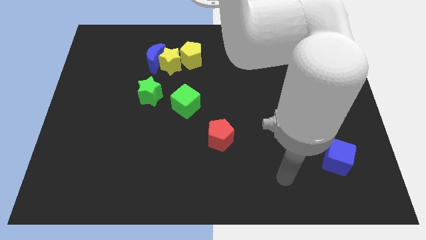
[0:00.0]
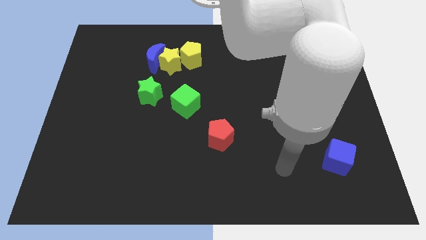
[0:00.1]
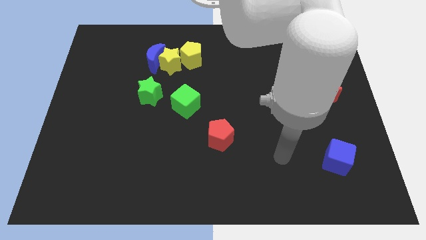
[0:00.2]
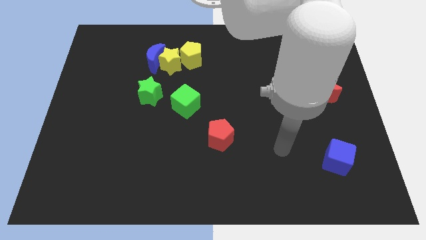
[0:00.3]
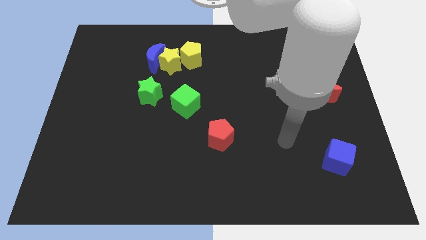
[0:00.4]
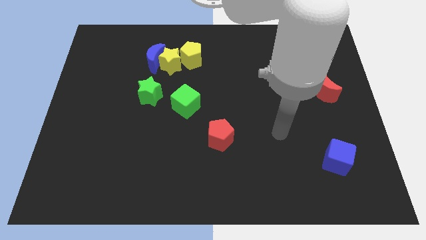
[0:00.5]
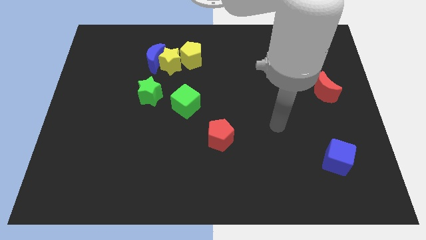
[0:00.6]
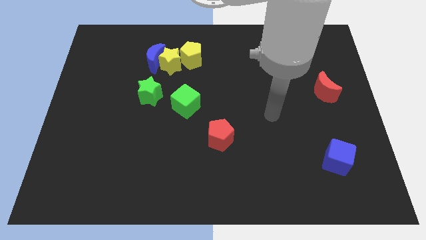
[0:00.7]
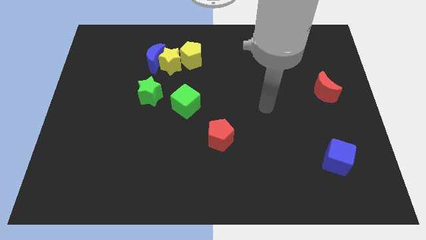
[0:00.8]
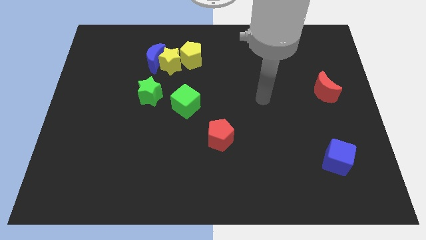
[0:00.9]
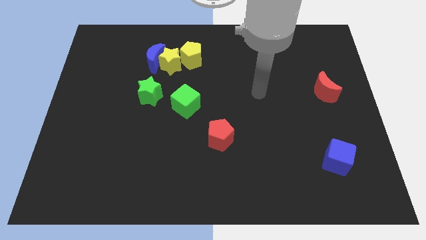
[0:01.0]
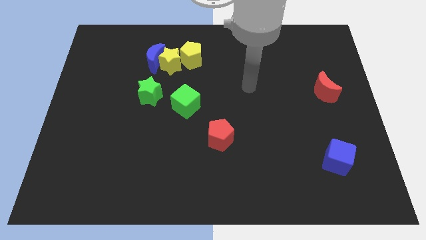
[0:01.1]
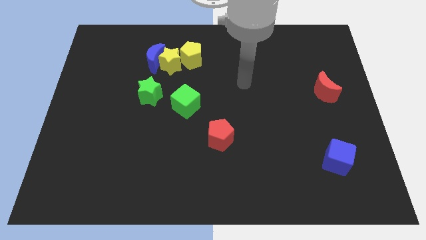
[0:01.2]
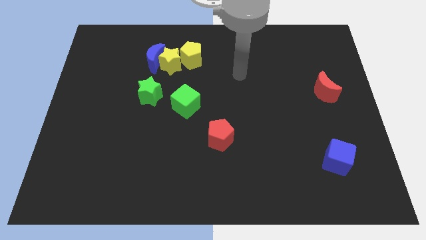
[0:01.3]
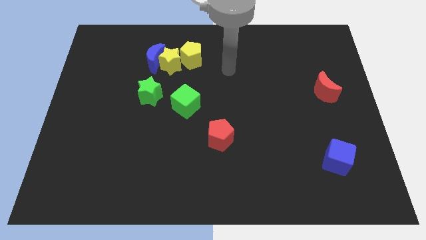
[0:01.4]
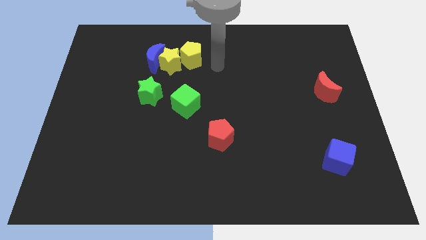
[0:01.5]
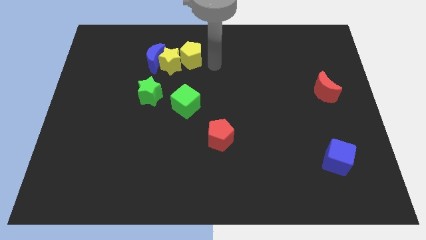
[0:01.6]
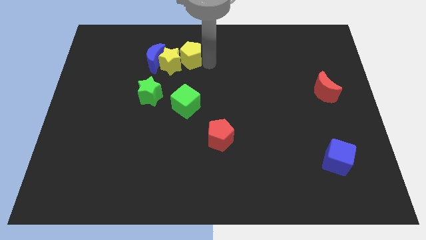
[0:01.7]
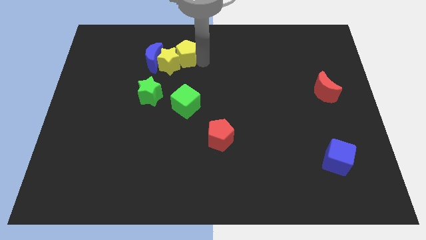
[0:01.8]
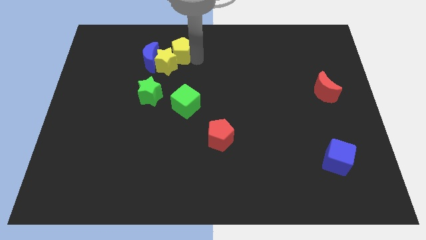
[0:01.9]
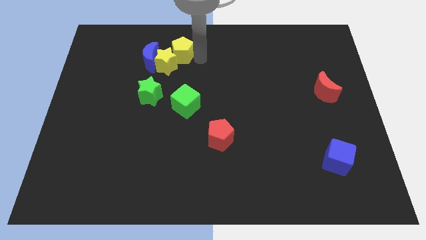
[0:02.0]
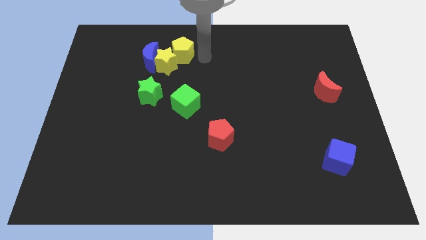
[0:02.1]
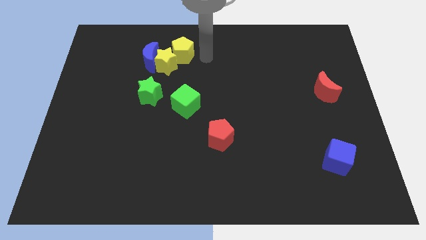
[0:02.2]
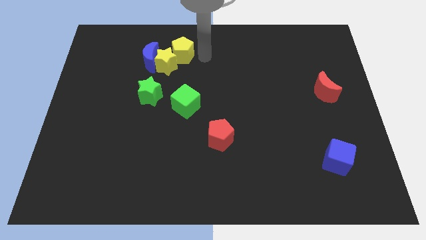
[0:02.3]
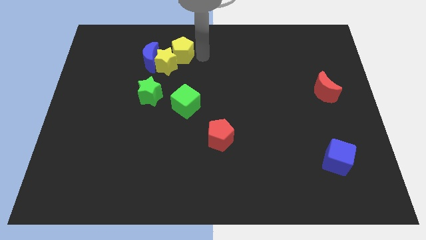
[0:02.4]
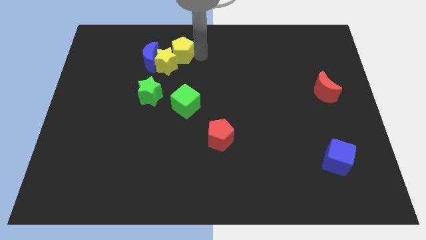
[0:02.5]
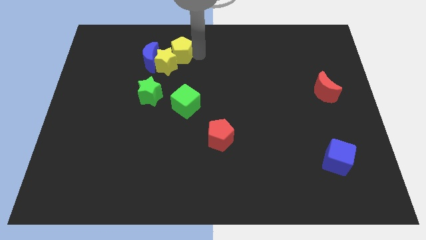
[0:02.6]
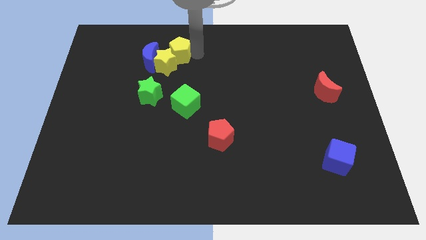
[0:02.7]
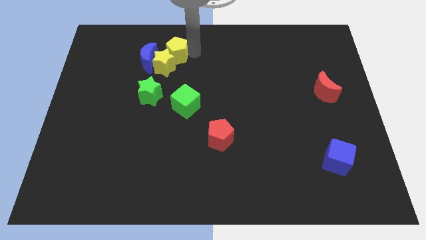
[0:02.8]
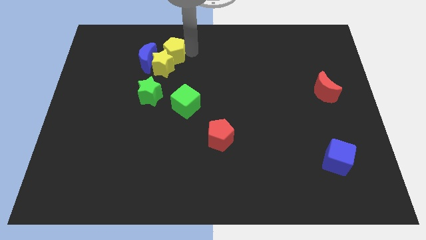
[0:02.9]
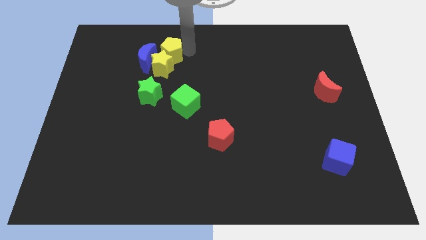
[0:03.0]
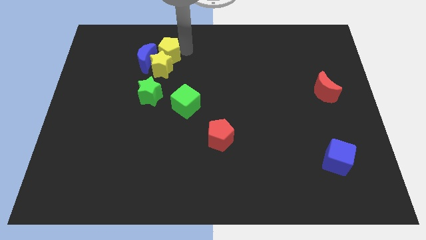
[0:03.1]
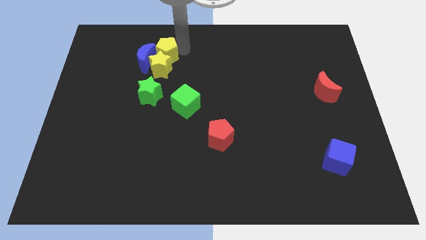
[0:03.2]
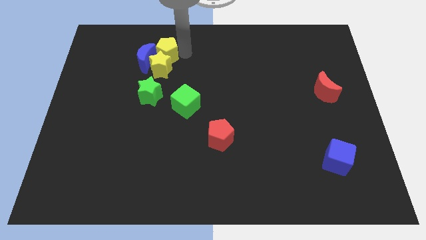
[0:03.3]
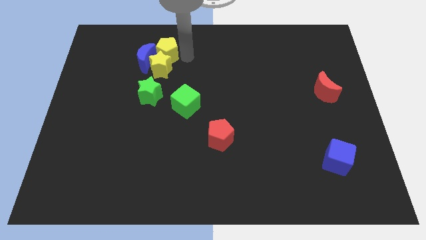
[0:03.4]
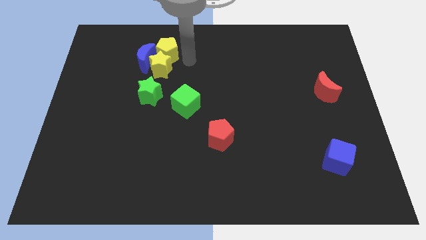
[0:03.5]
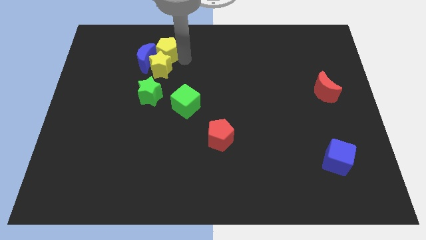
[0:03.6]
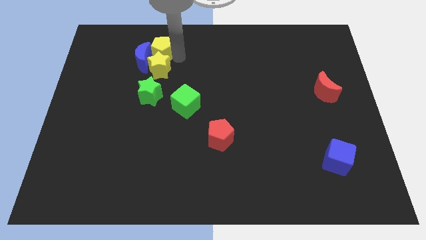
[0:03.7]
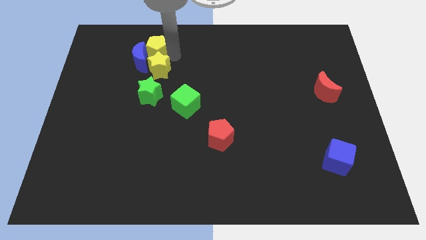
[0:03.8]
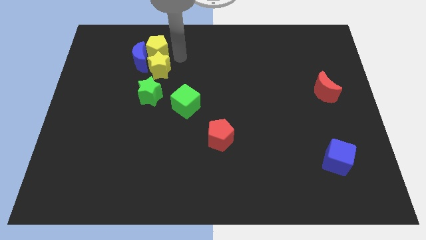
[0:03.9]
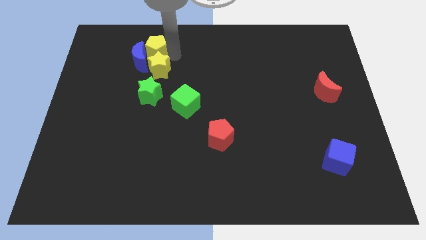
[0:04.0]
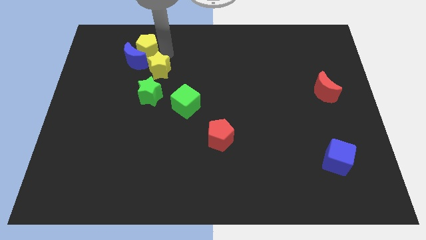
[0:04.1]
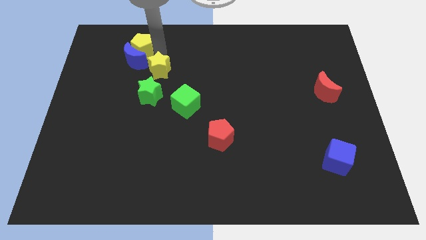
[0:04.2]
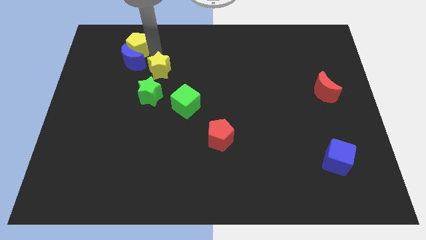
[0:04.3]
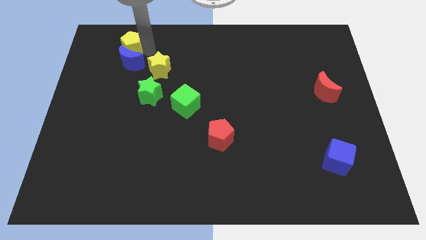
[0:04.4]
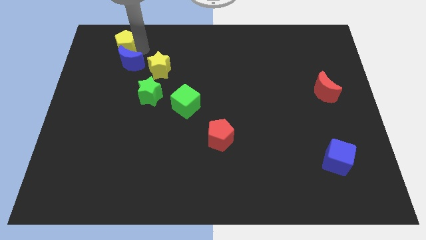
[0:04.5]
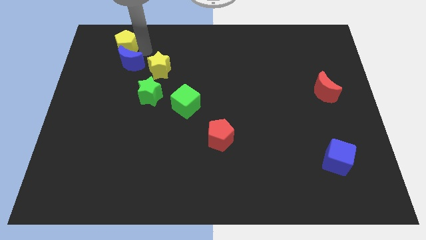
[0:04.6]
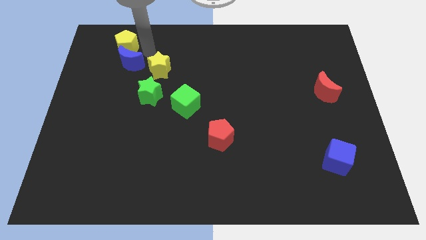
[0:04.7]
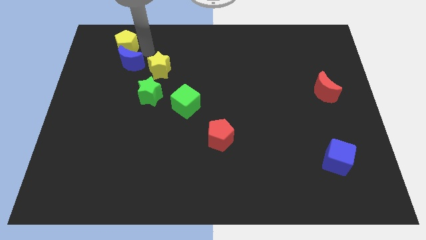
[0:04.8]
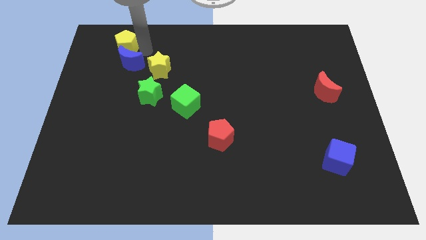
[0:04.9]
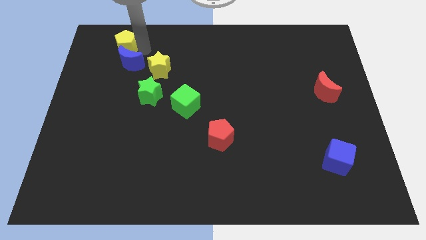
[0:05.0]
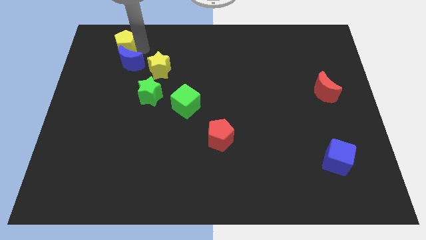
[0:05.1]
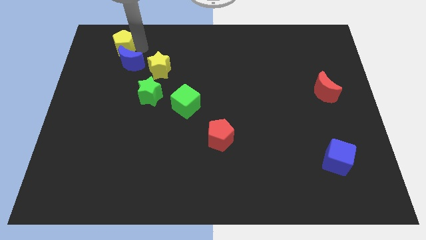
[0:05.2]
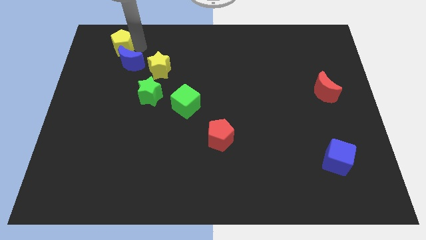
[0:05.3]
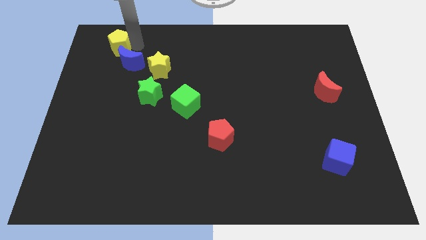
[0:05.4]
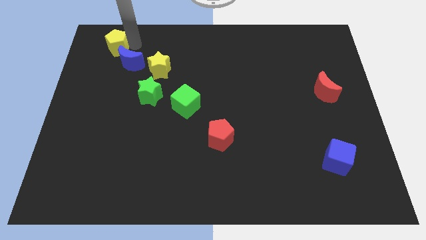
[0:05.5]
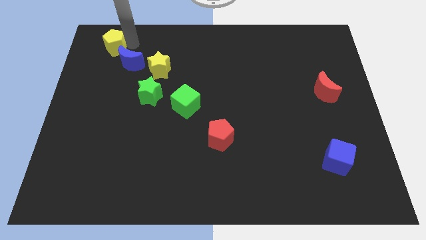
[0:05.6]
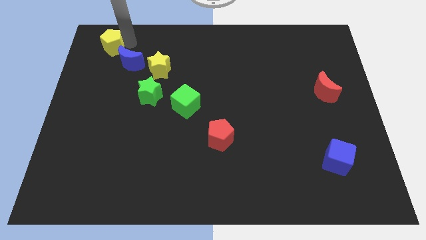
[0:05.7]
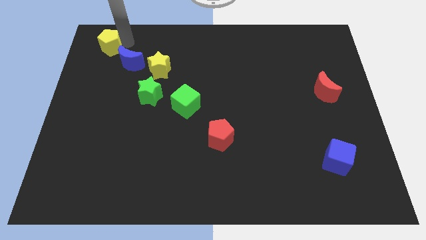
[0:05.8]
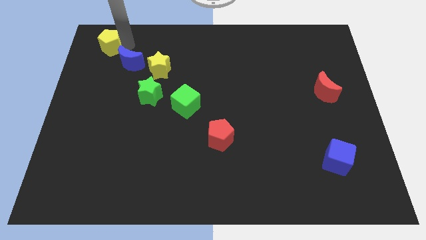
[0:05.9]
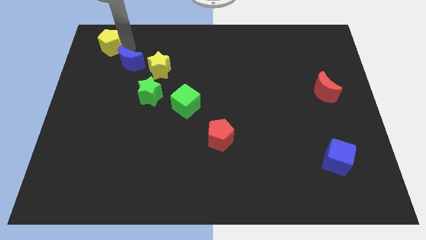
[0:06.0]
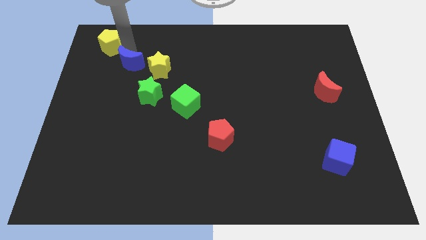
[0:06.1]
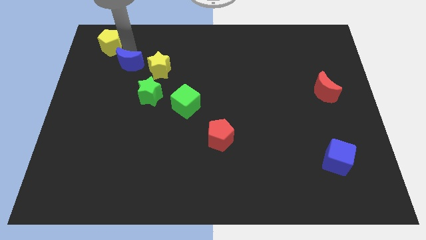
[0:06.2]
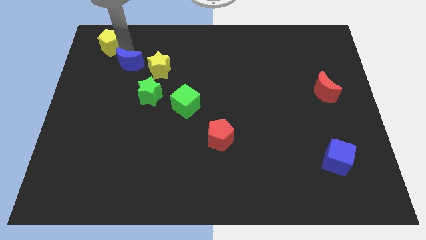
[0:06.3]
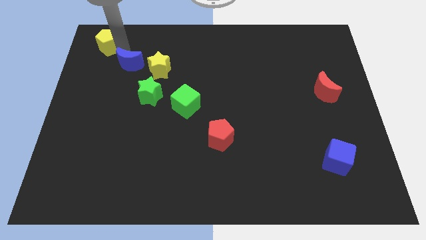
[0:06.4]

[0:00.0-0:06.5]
put the yellow pentagon to the top left of the board
